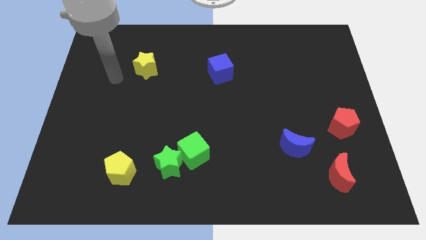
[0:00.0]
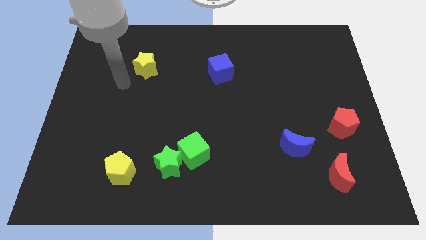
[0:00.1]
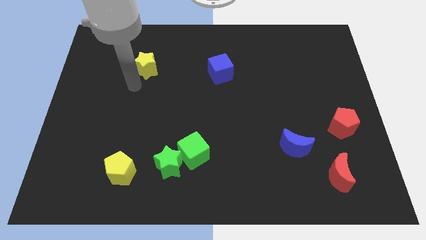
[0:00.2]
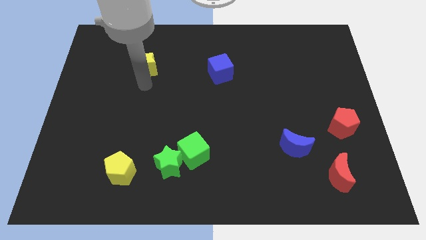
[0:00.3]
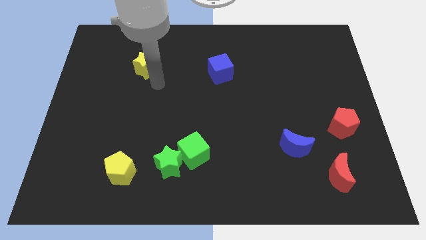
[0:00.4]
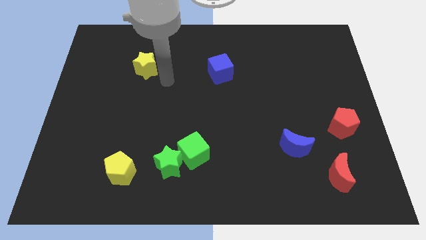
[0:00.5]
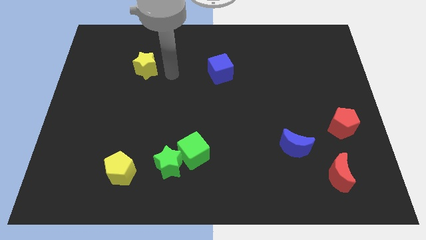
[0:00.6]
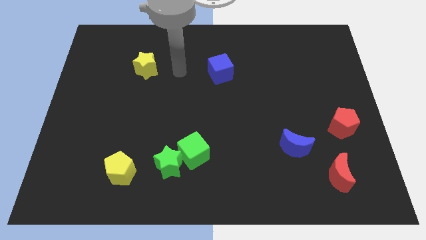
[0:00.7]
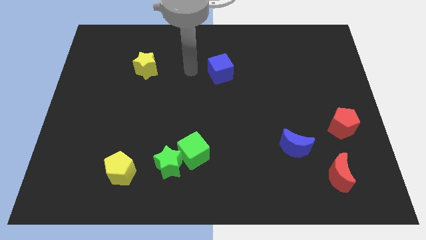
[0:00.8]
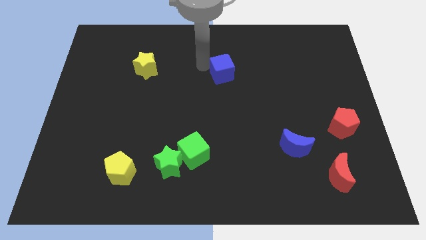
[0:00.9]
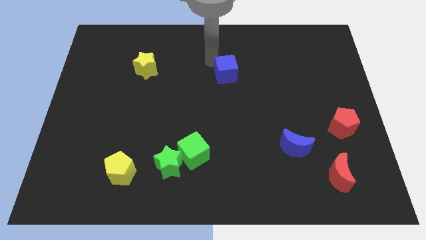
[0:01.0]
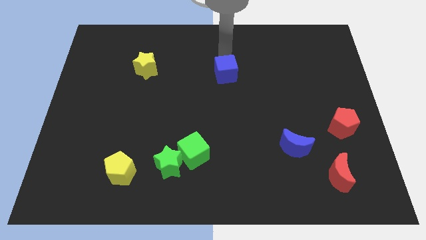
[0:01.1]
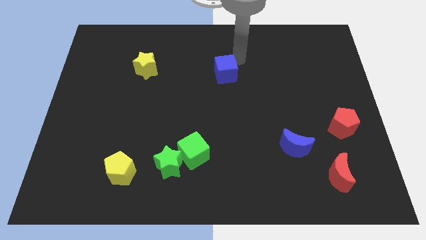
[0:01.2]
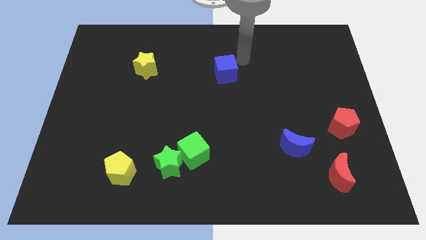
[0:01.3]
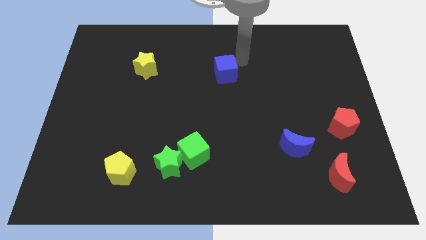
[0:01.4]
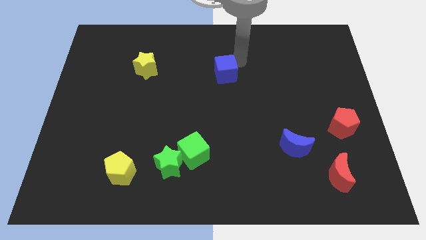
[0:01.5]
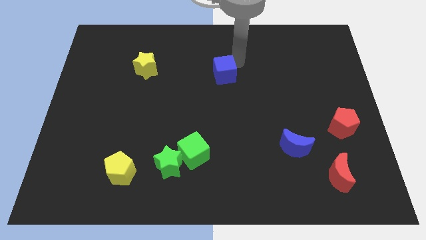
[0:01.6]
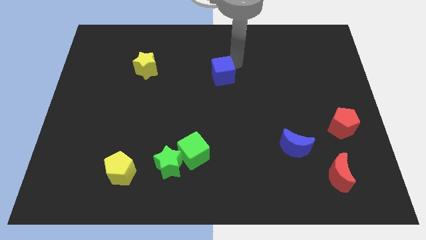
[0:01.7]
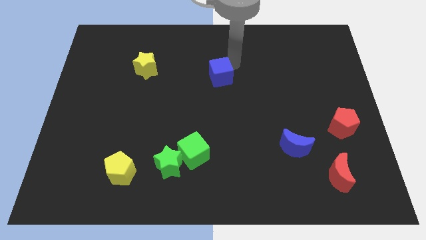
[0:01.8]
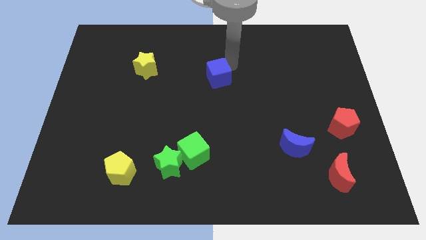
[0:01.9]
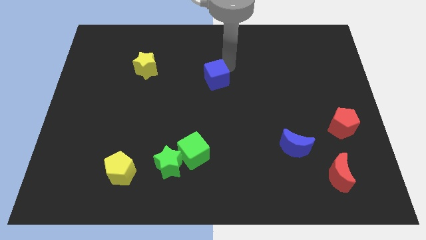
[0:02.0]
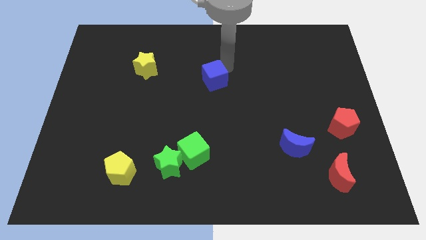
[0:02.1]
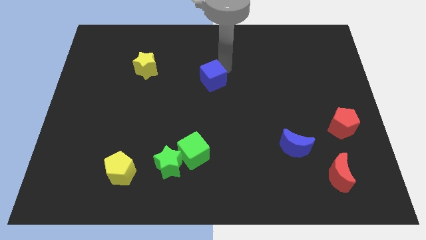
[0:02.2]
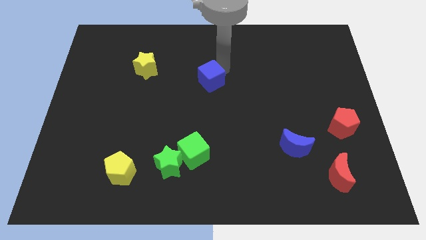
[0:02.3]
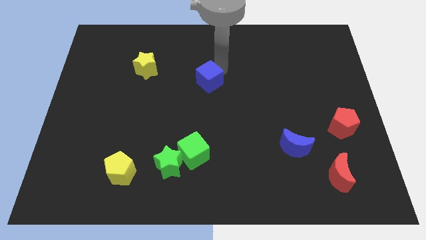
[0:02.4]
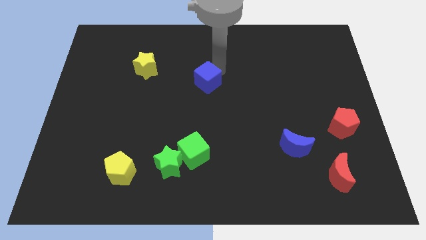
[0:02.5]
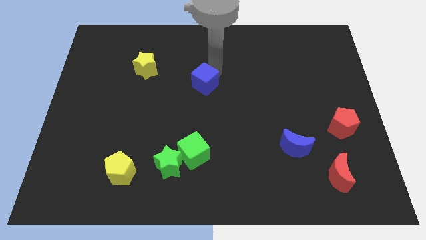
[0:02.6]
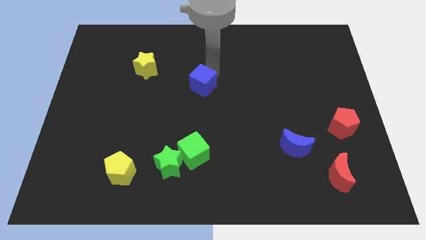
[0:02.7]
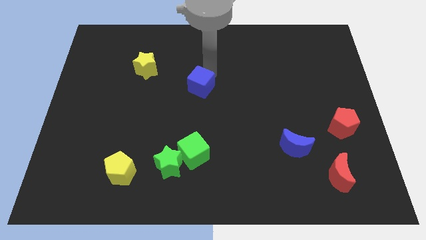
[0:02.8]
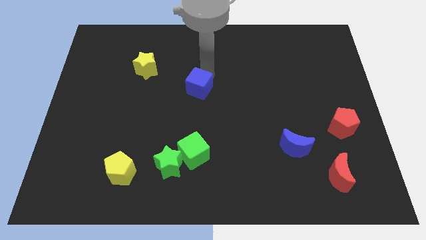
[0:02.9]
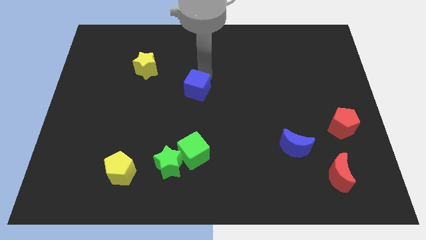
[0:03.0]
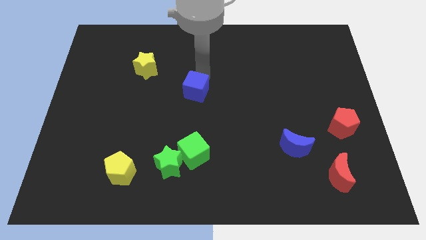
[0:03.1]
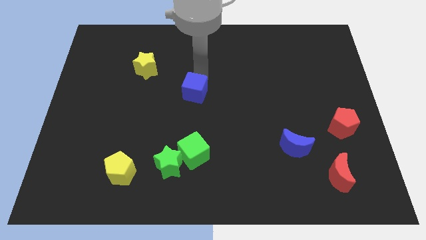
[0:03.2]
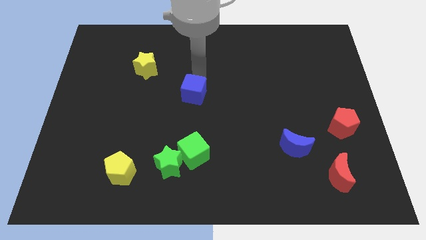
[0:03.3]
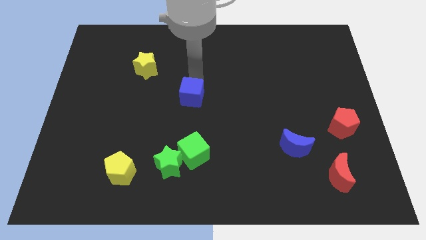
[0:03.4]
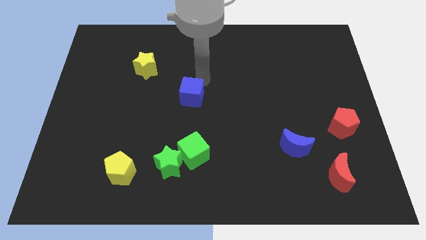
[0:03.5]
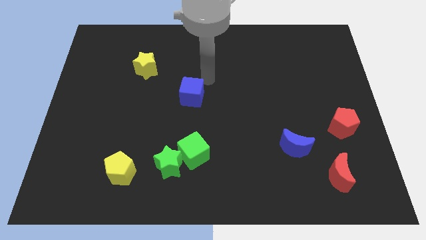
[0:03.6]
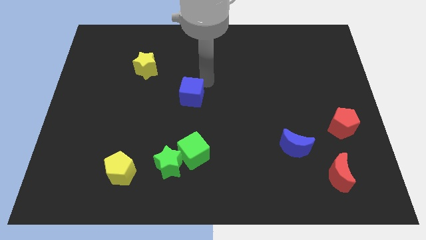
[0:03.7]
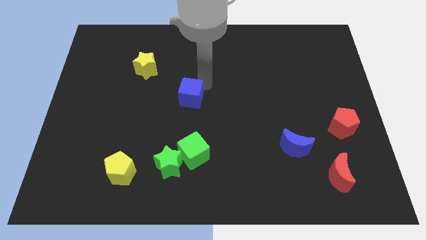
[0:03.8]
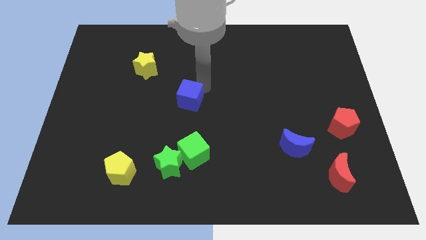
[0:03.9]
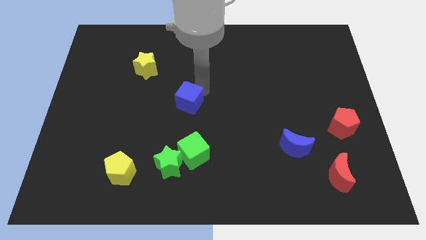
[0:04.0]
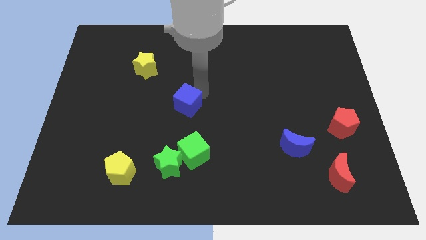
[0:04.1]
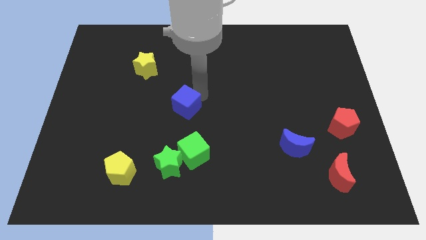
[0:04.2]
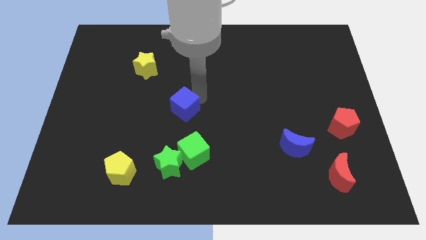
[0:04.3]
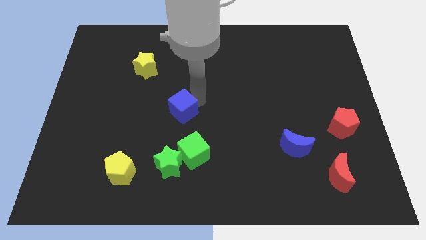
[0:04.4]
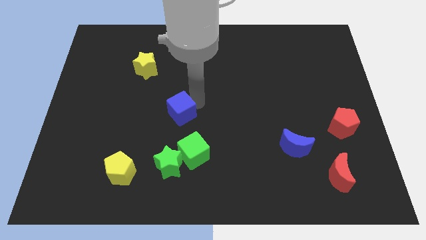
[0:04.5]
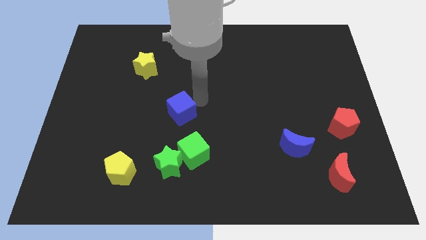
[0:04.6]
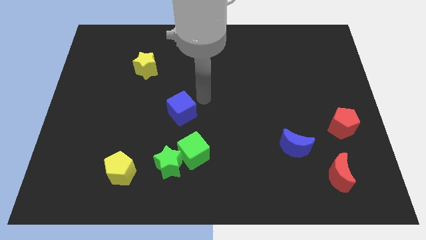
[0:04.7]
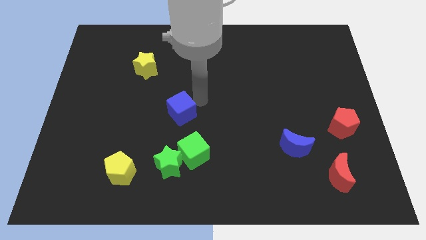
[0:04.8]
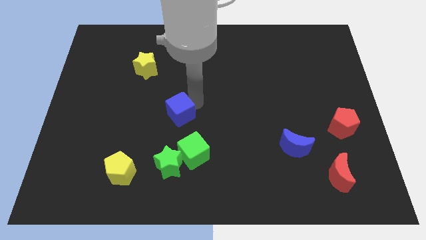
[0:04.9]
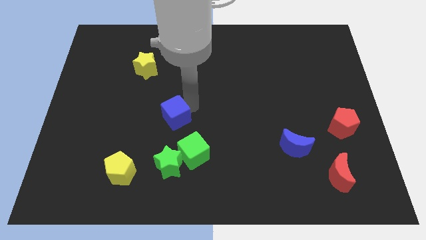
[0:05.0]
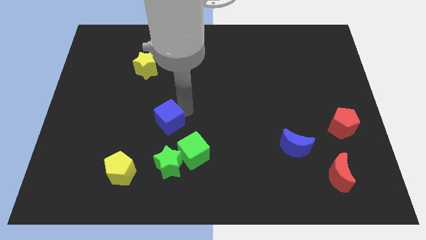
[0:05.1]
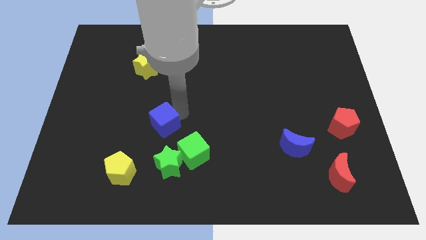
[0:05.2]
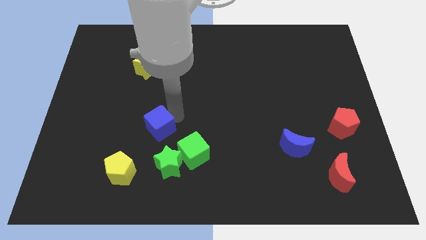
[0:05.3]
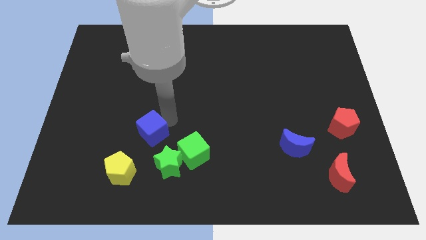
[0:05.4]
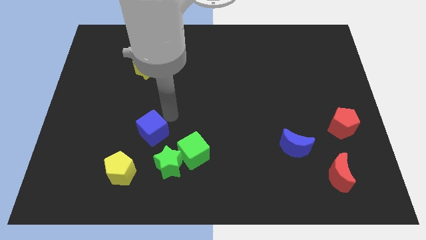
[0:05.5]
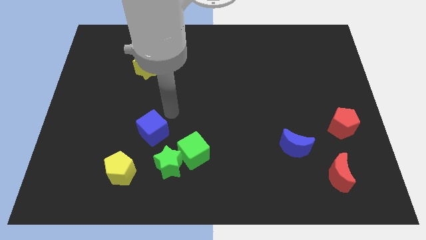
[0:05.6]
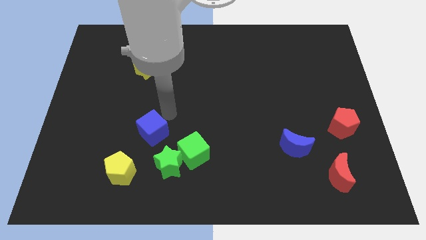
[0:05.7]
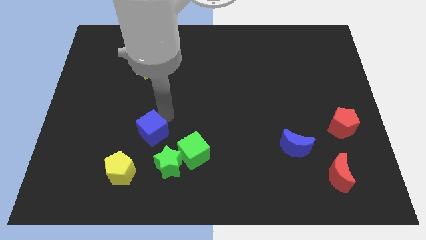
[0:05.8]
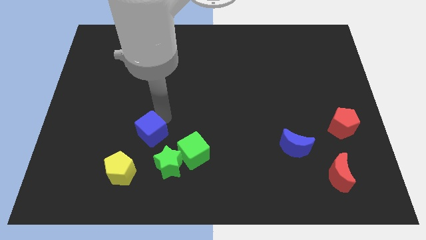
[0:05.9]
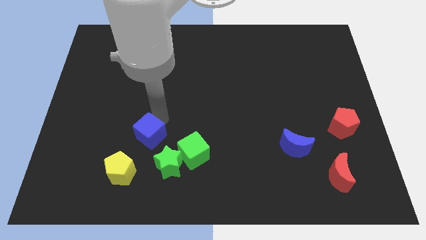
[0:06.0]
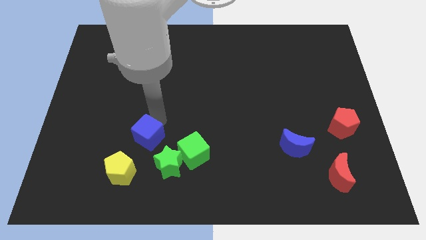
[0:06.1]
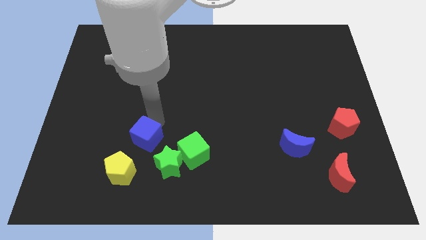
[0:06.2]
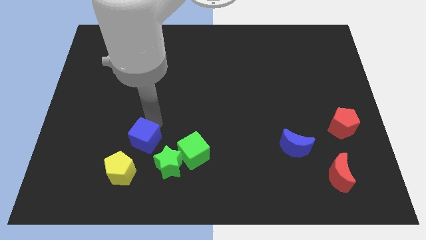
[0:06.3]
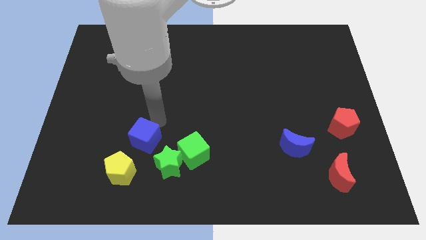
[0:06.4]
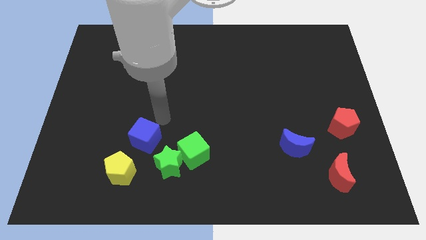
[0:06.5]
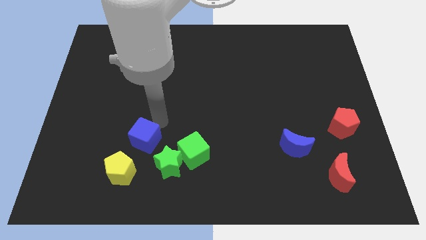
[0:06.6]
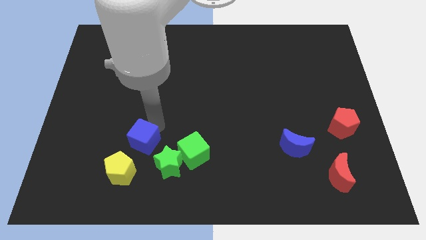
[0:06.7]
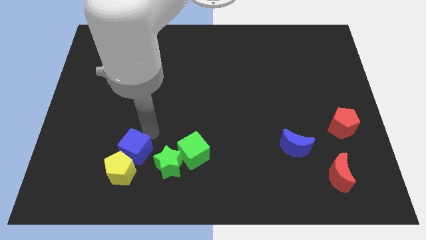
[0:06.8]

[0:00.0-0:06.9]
put the blue cube close to the yellow pentagon

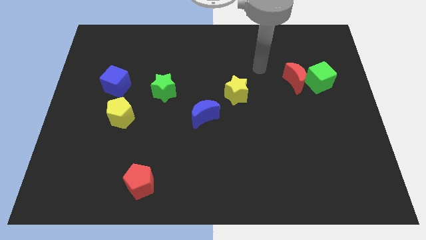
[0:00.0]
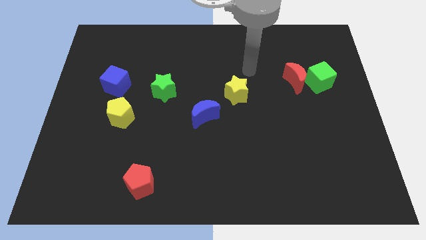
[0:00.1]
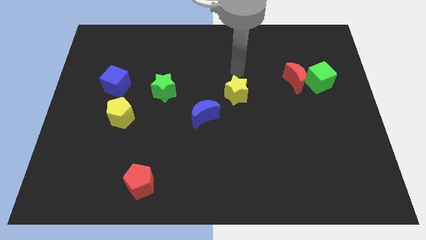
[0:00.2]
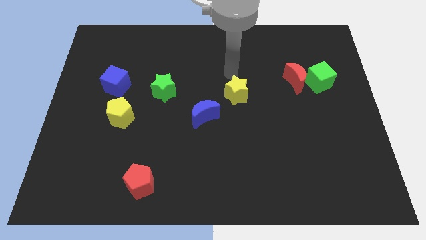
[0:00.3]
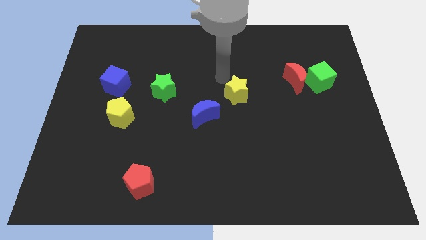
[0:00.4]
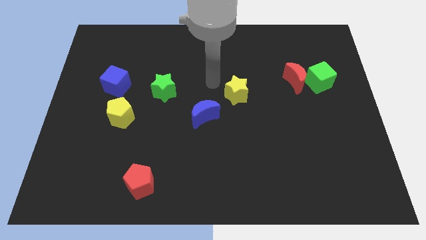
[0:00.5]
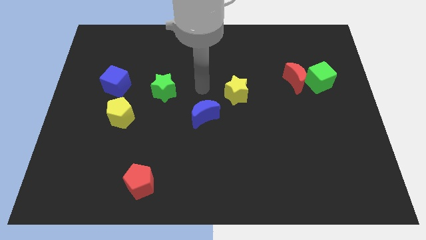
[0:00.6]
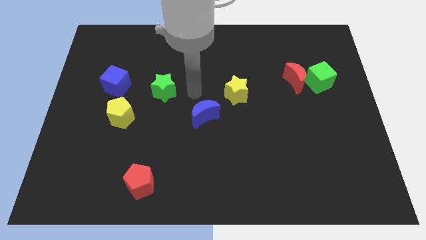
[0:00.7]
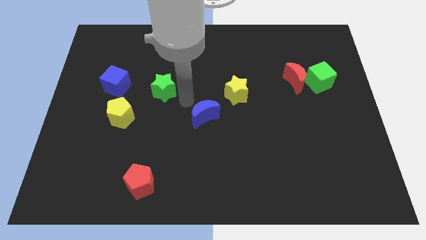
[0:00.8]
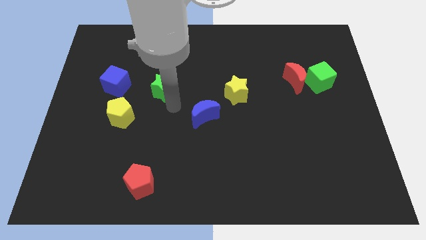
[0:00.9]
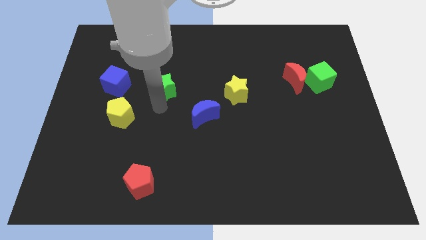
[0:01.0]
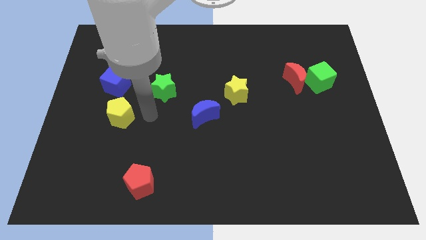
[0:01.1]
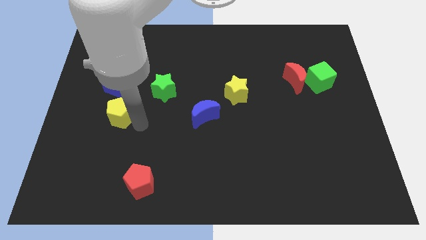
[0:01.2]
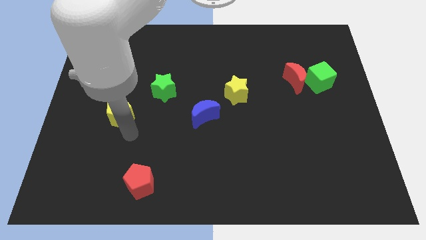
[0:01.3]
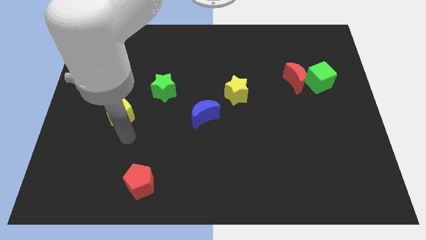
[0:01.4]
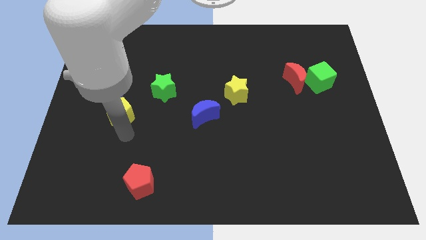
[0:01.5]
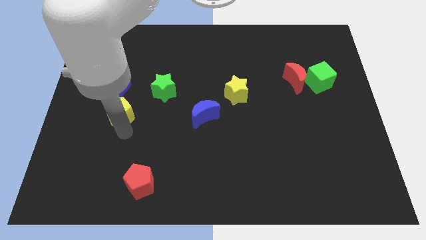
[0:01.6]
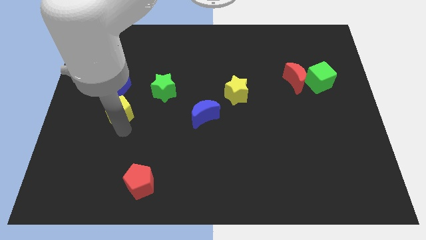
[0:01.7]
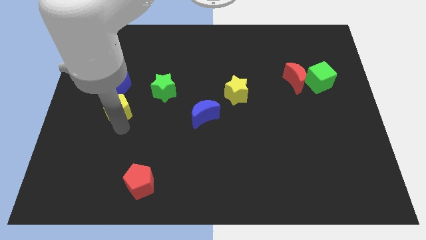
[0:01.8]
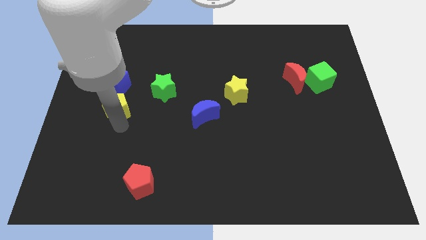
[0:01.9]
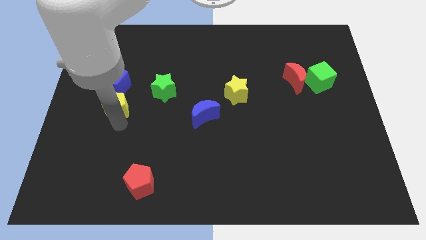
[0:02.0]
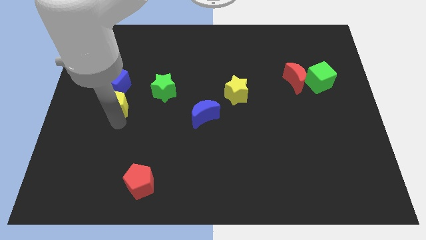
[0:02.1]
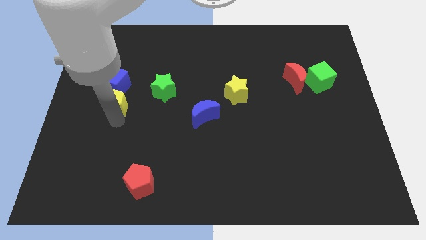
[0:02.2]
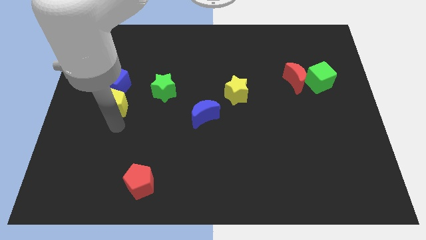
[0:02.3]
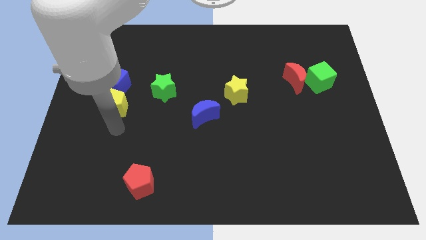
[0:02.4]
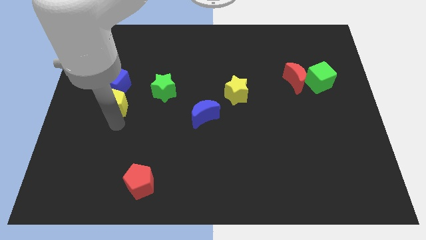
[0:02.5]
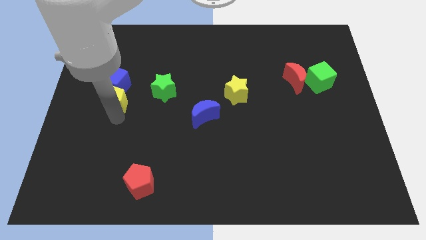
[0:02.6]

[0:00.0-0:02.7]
push the yellow pentagon next to the blue cube
